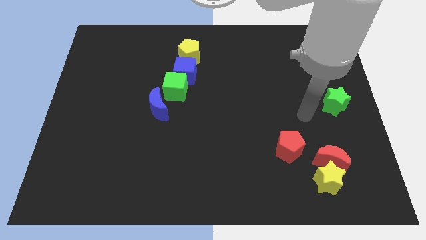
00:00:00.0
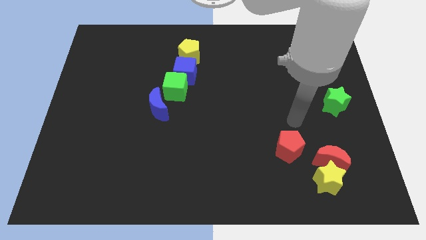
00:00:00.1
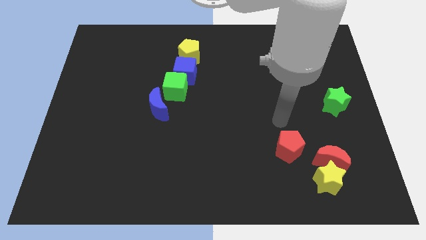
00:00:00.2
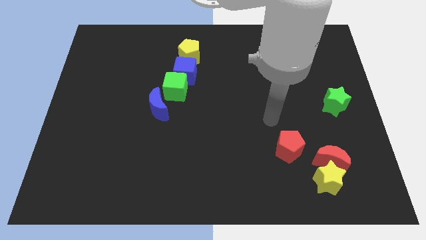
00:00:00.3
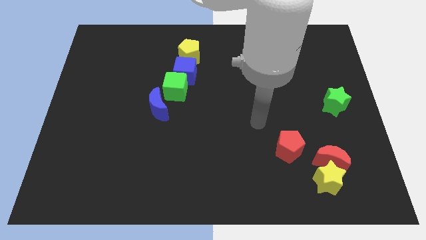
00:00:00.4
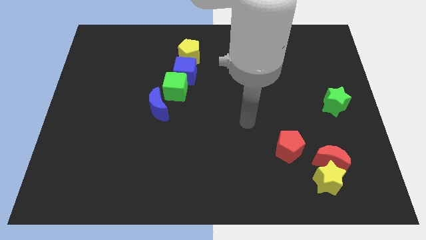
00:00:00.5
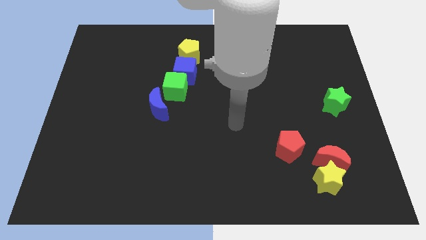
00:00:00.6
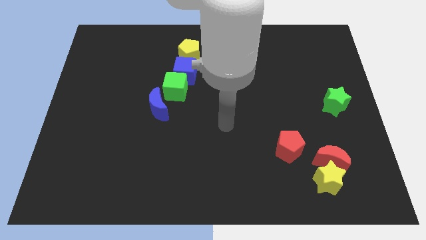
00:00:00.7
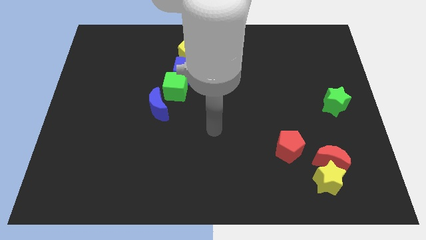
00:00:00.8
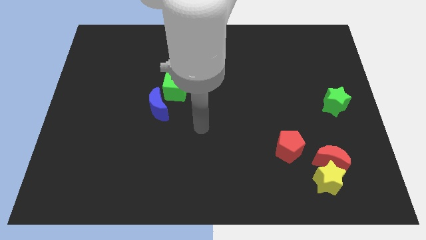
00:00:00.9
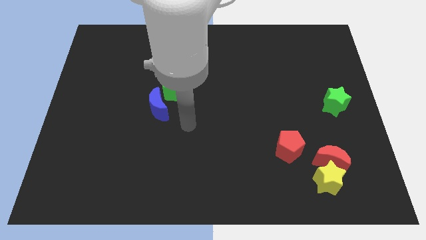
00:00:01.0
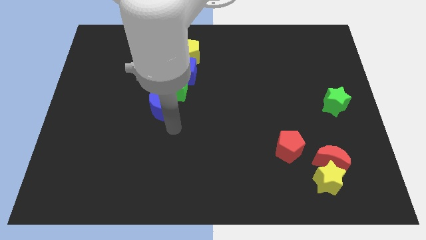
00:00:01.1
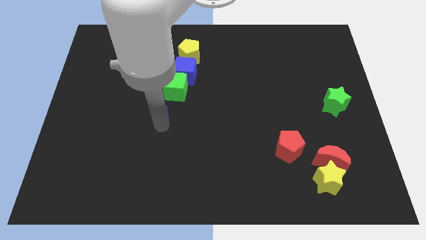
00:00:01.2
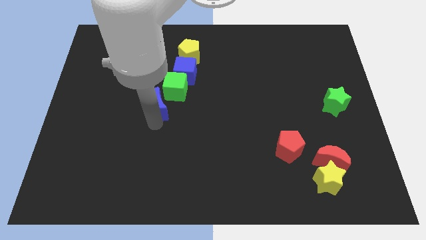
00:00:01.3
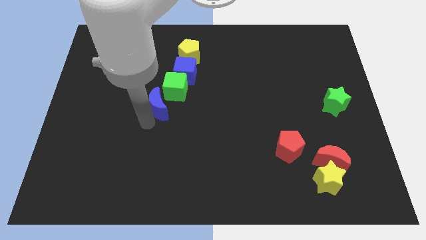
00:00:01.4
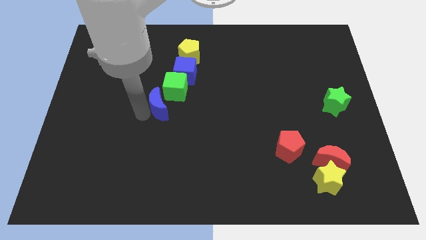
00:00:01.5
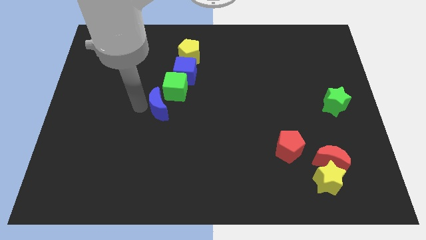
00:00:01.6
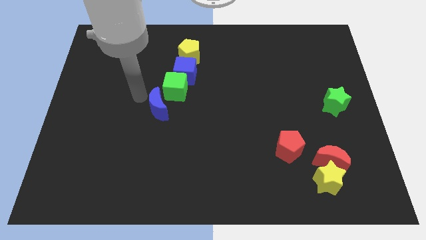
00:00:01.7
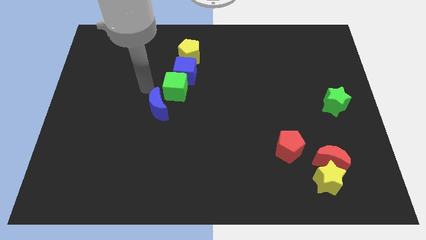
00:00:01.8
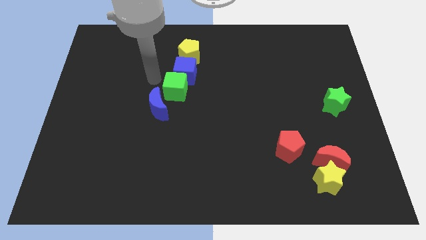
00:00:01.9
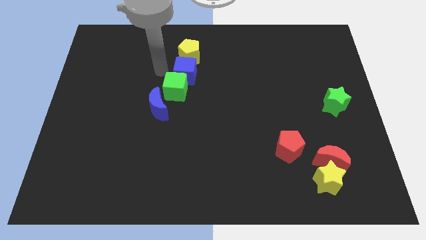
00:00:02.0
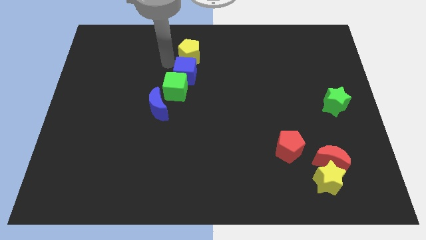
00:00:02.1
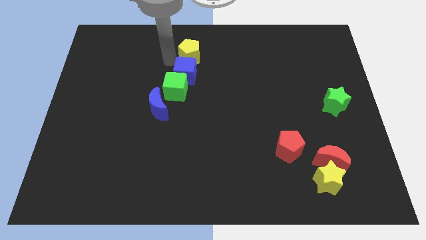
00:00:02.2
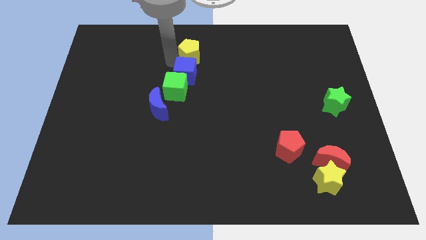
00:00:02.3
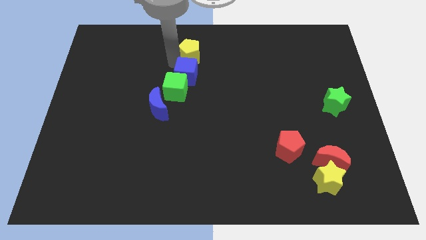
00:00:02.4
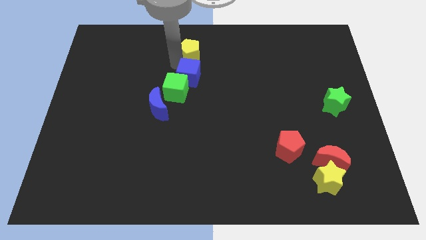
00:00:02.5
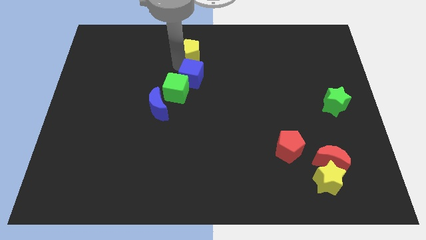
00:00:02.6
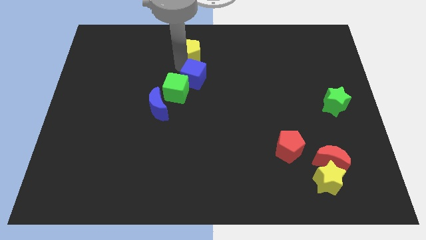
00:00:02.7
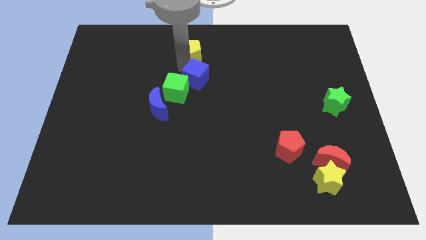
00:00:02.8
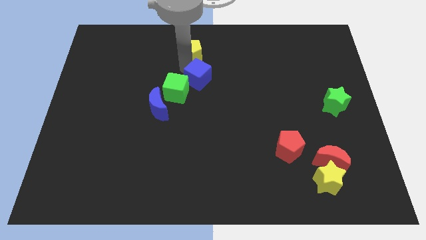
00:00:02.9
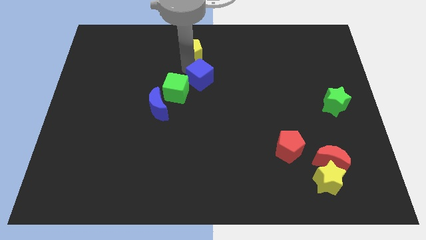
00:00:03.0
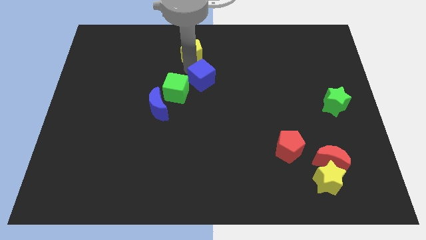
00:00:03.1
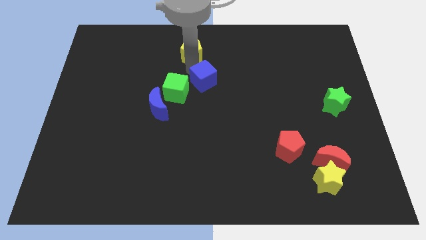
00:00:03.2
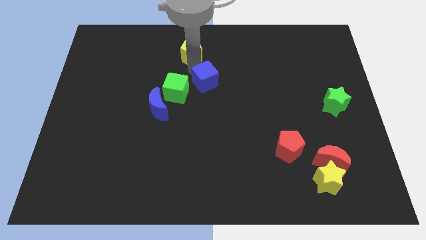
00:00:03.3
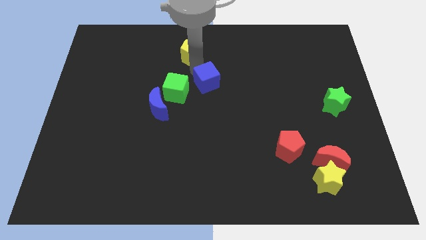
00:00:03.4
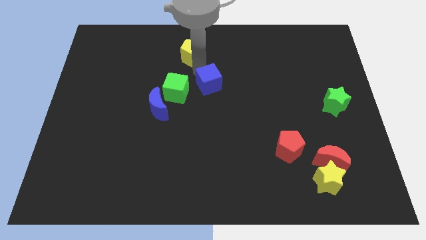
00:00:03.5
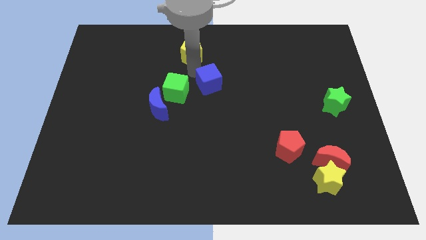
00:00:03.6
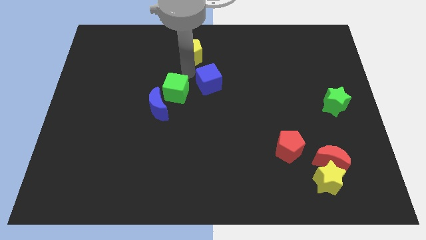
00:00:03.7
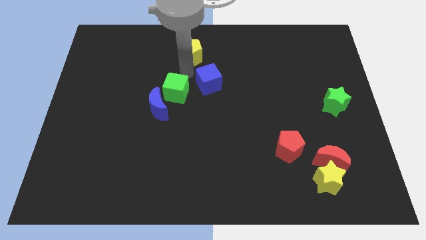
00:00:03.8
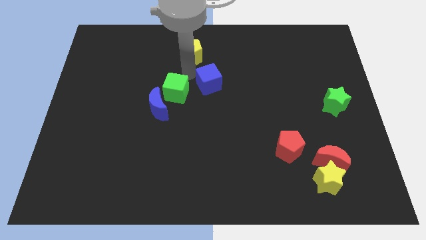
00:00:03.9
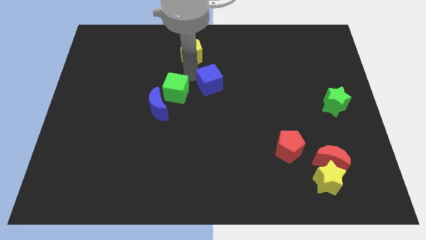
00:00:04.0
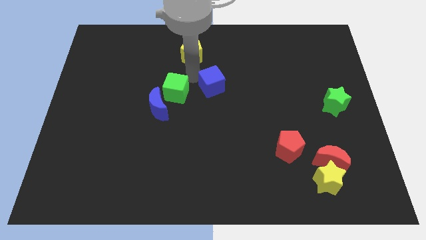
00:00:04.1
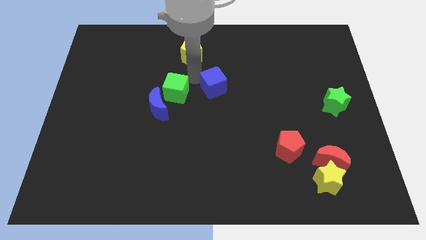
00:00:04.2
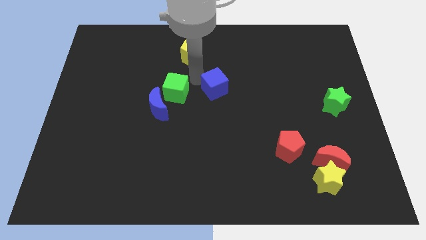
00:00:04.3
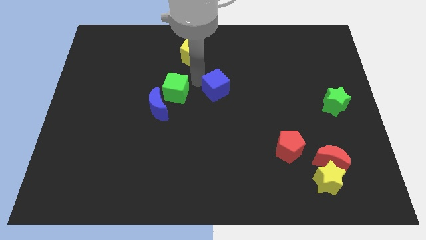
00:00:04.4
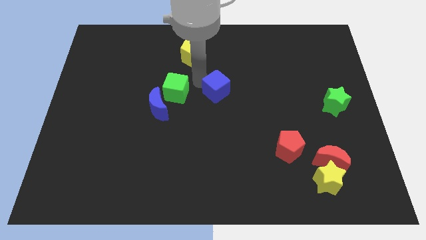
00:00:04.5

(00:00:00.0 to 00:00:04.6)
separate the blue cube from the green cube and yellow pentagon

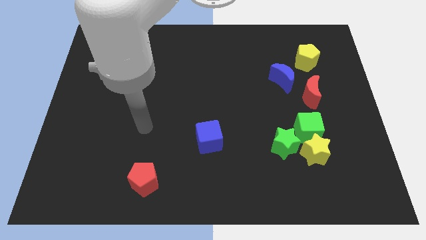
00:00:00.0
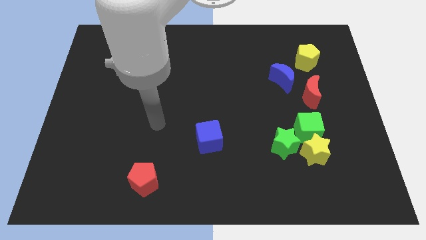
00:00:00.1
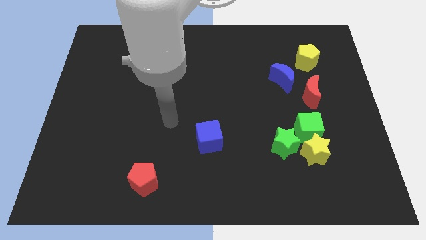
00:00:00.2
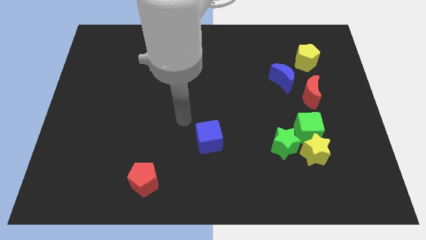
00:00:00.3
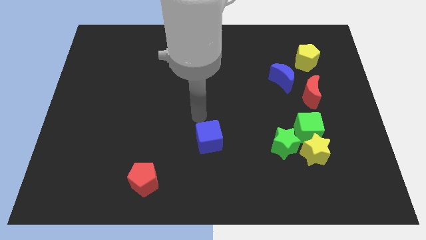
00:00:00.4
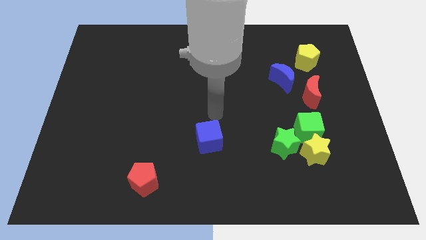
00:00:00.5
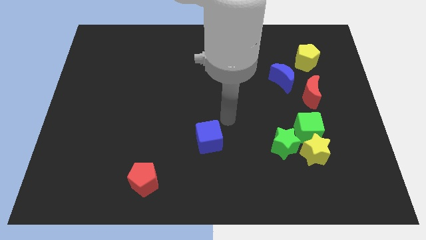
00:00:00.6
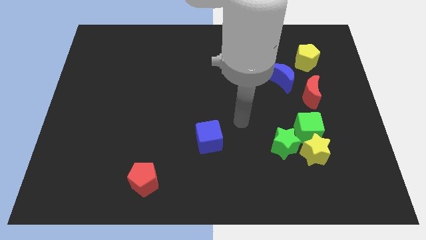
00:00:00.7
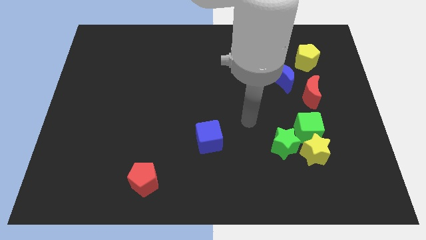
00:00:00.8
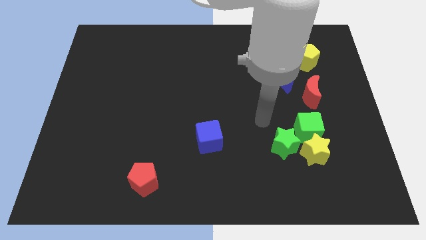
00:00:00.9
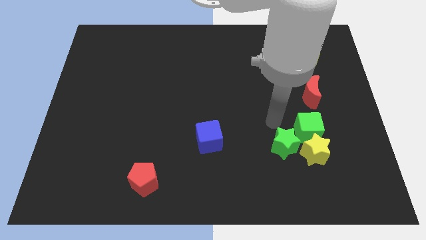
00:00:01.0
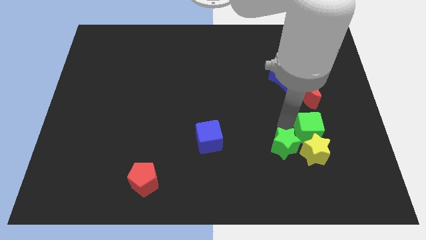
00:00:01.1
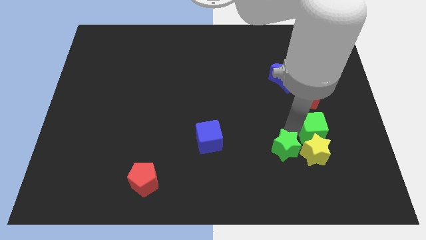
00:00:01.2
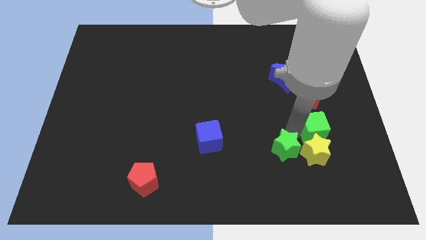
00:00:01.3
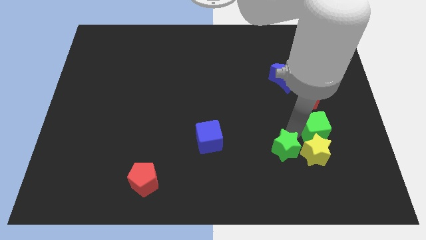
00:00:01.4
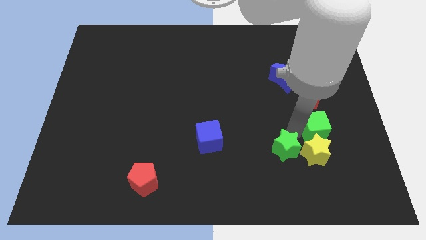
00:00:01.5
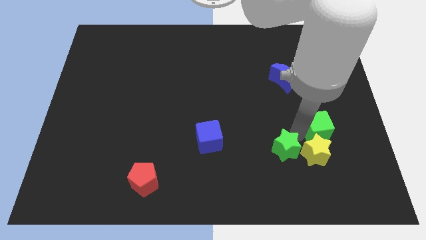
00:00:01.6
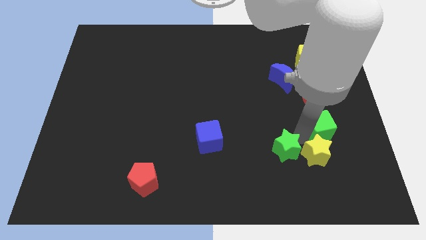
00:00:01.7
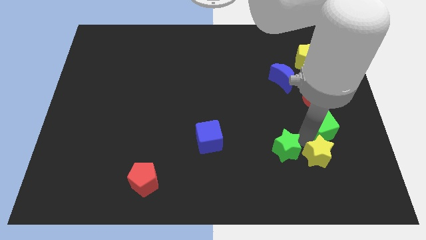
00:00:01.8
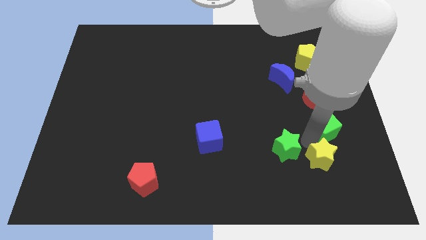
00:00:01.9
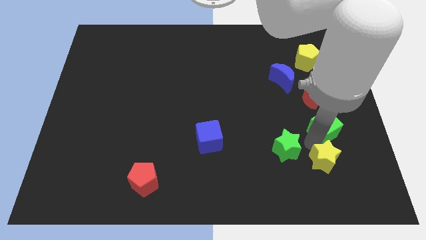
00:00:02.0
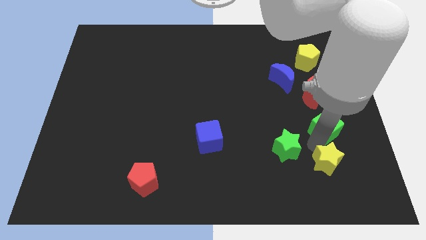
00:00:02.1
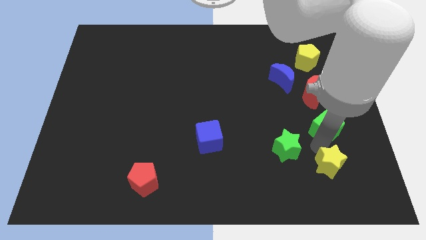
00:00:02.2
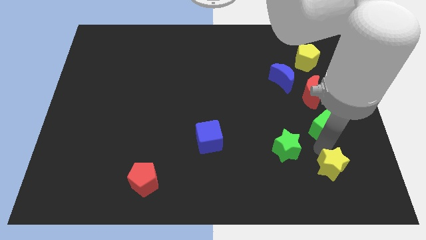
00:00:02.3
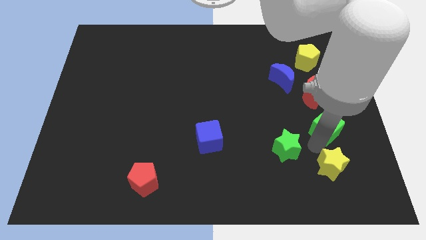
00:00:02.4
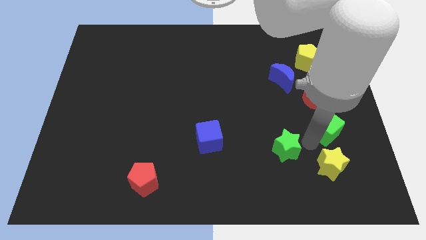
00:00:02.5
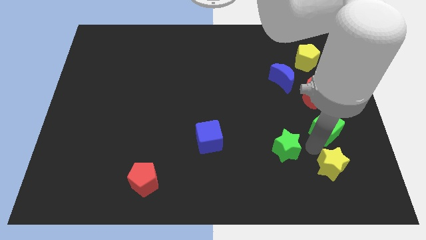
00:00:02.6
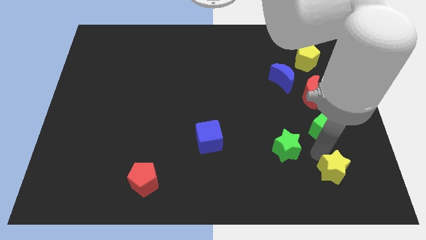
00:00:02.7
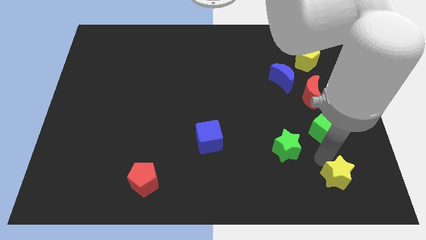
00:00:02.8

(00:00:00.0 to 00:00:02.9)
pull the yellow star apart from the green cube and green star

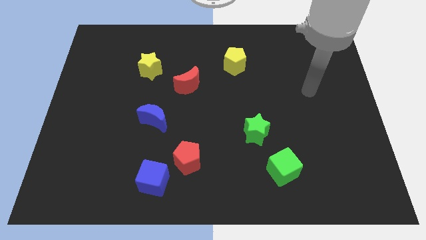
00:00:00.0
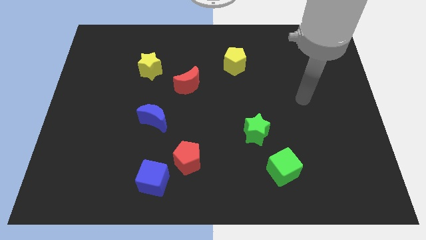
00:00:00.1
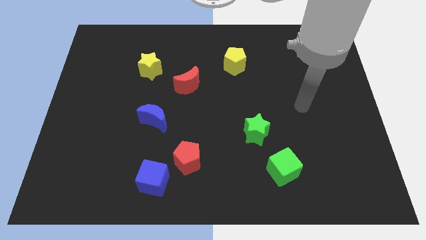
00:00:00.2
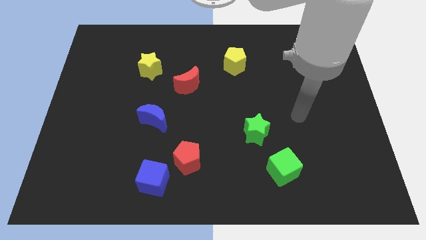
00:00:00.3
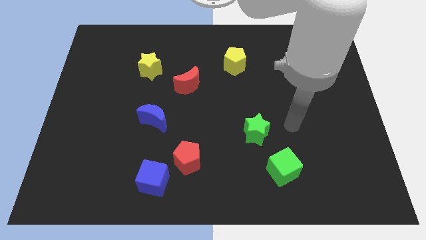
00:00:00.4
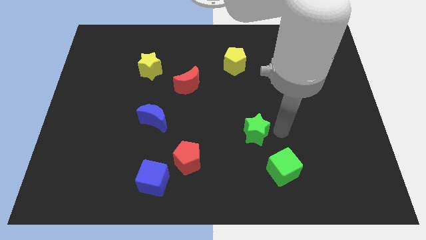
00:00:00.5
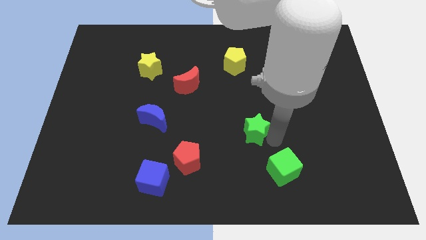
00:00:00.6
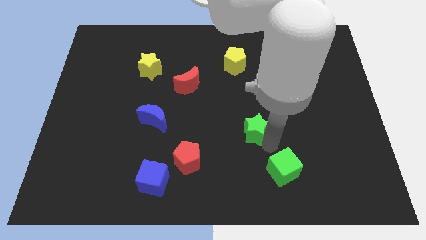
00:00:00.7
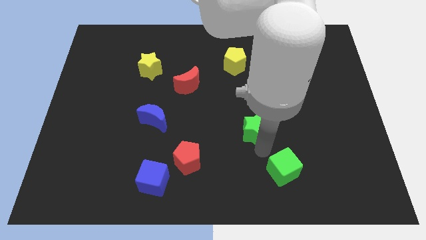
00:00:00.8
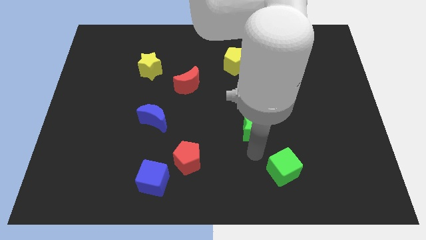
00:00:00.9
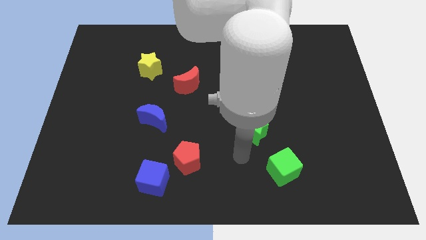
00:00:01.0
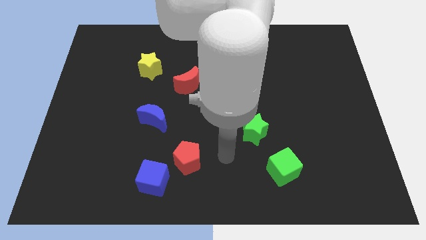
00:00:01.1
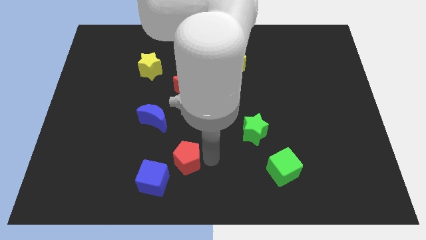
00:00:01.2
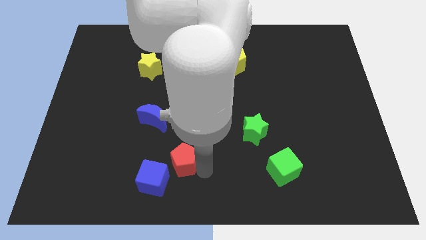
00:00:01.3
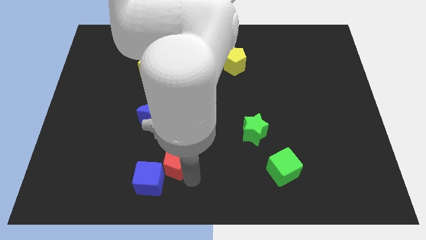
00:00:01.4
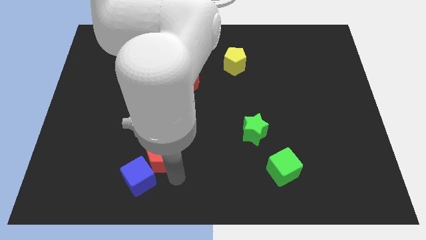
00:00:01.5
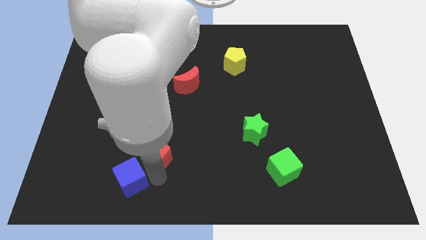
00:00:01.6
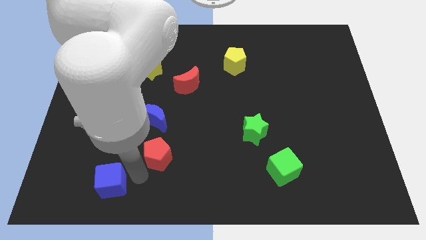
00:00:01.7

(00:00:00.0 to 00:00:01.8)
separate the red pentagon from the blue cube

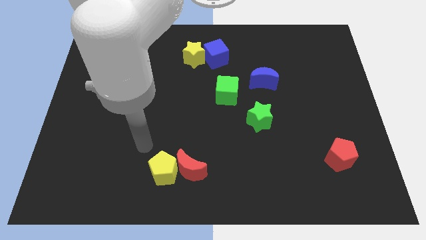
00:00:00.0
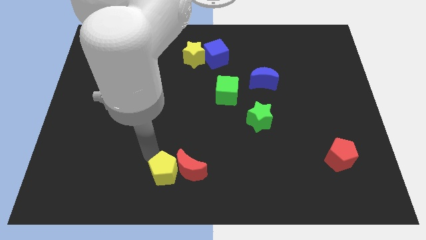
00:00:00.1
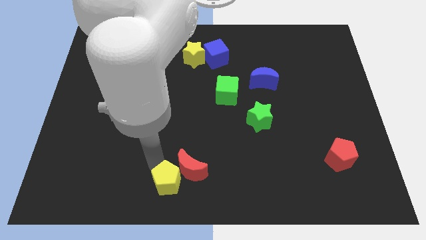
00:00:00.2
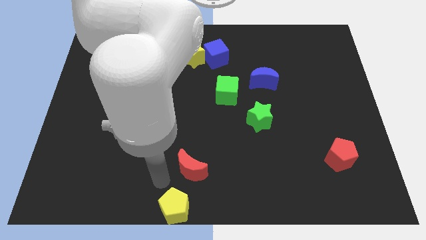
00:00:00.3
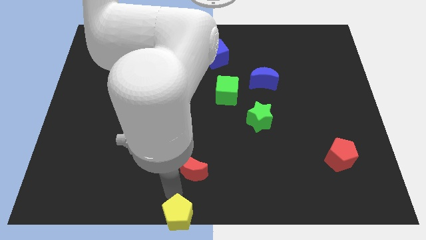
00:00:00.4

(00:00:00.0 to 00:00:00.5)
move the red moon away from the yellow pentagon
